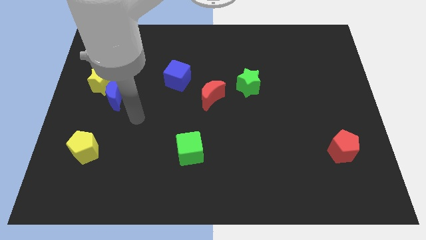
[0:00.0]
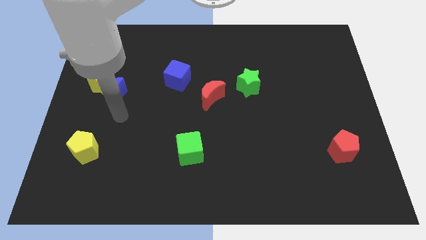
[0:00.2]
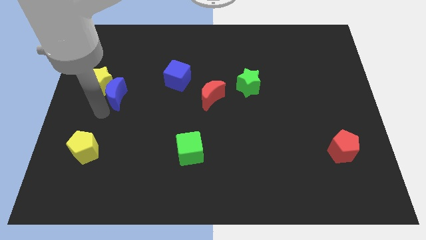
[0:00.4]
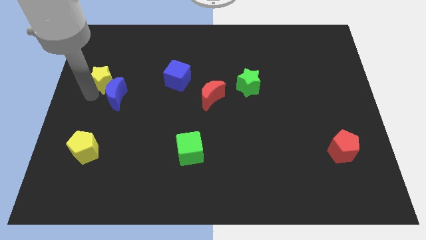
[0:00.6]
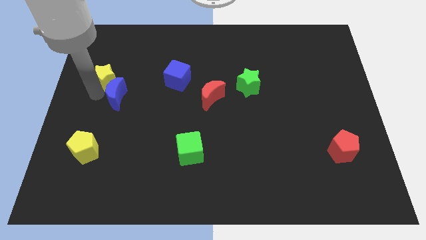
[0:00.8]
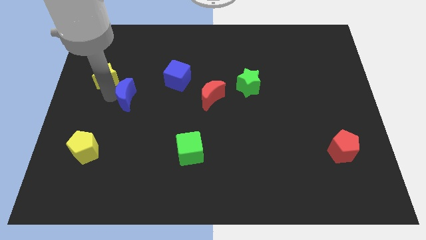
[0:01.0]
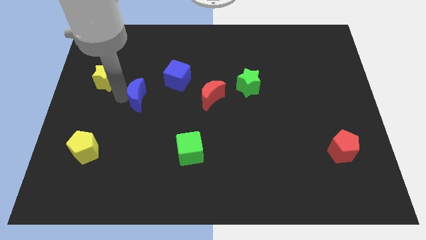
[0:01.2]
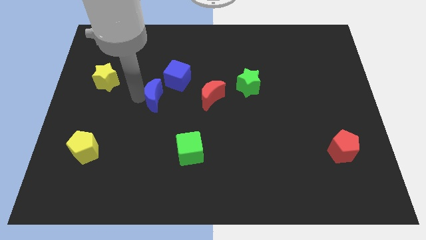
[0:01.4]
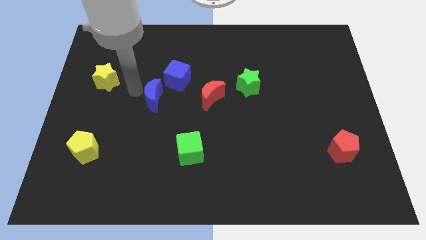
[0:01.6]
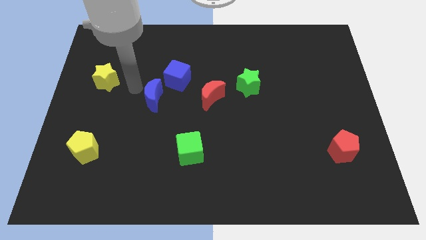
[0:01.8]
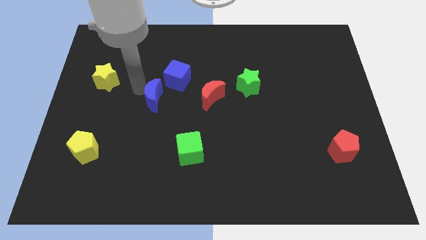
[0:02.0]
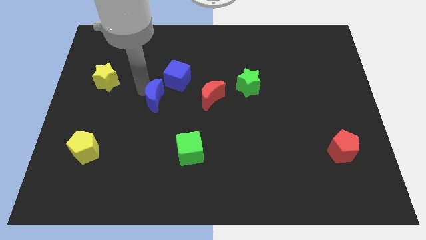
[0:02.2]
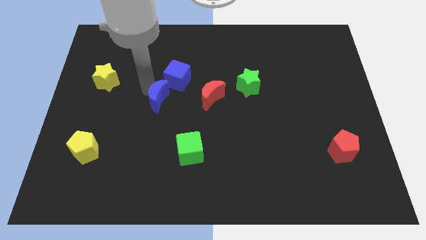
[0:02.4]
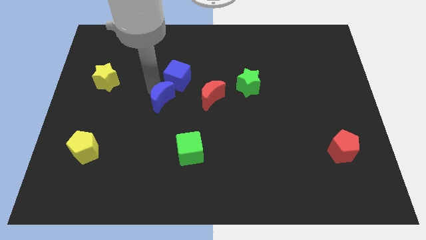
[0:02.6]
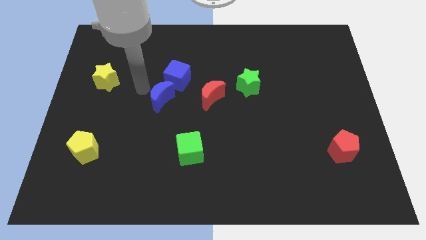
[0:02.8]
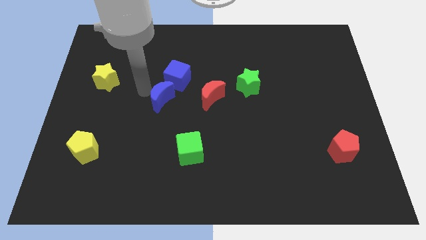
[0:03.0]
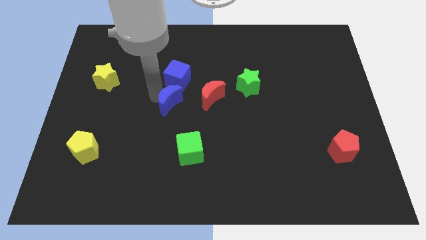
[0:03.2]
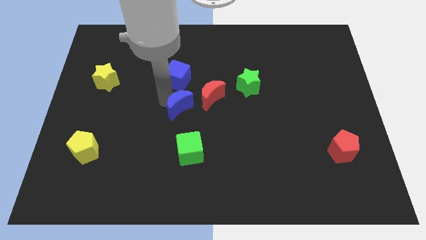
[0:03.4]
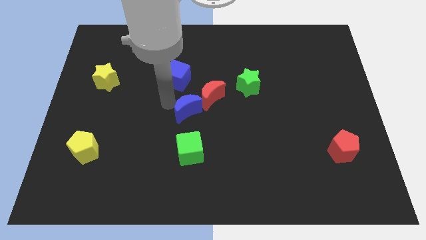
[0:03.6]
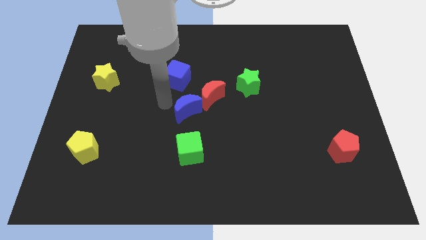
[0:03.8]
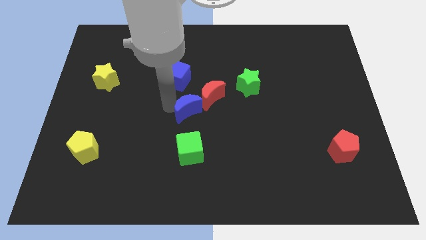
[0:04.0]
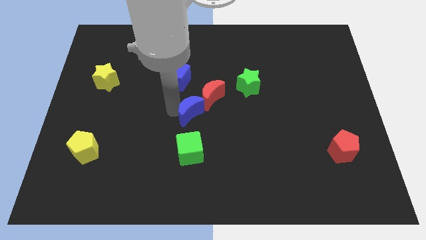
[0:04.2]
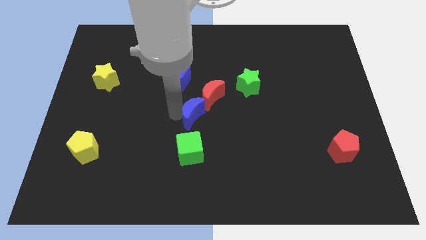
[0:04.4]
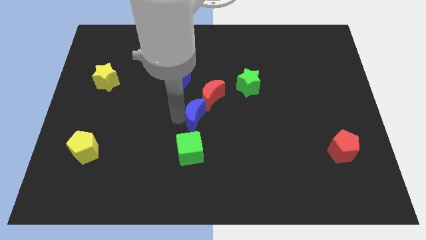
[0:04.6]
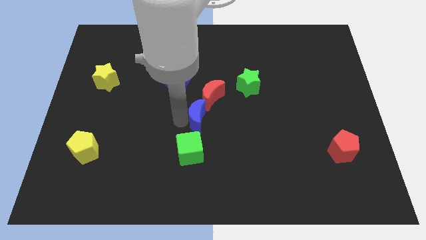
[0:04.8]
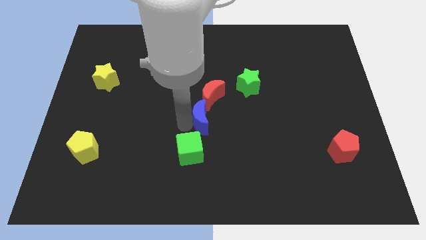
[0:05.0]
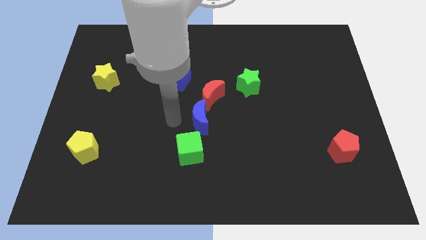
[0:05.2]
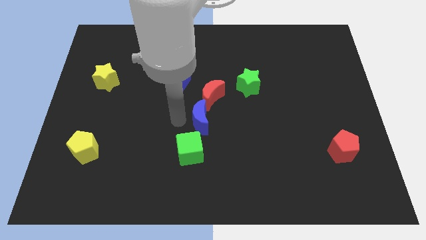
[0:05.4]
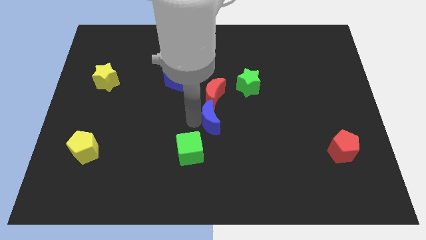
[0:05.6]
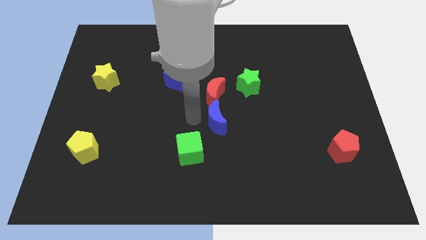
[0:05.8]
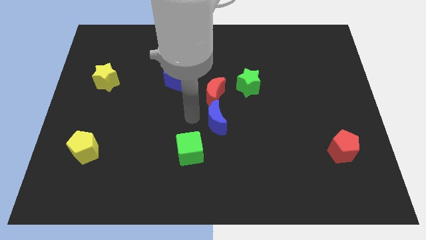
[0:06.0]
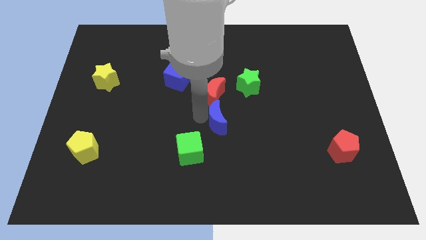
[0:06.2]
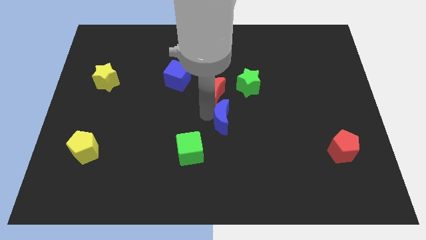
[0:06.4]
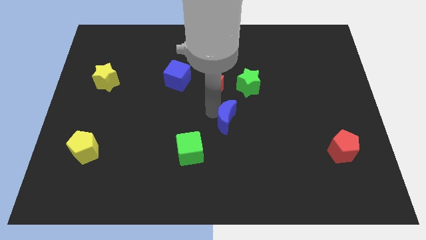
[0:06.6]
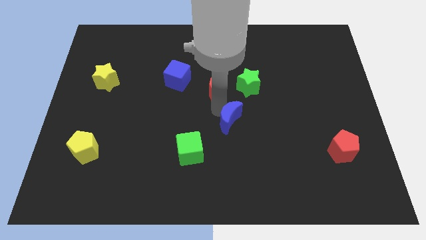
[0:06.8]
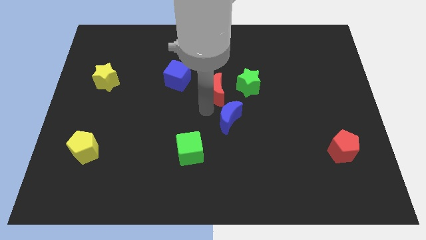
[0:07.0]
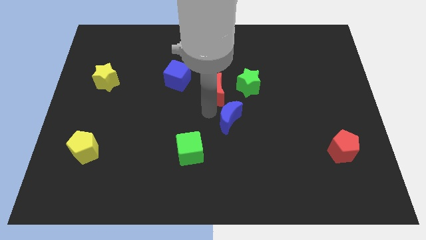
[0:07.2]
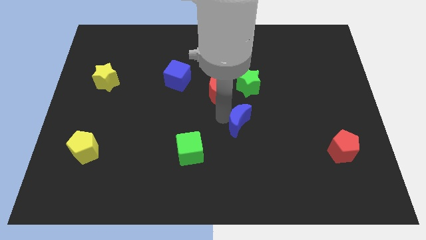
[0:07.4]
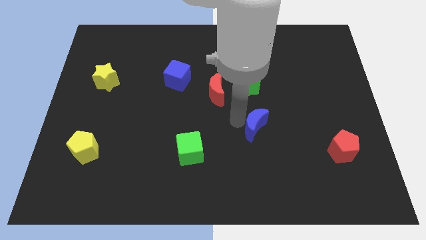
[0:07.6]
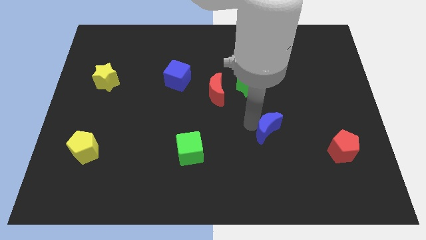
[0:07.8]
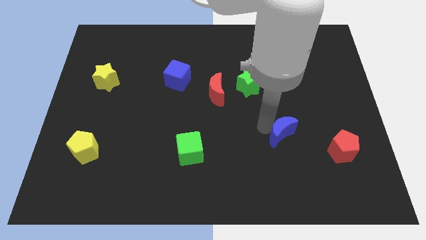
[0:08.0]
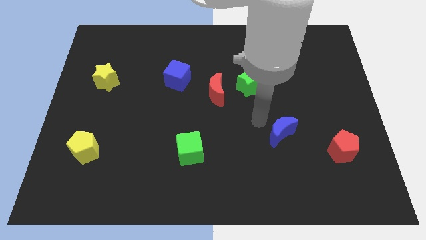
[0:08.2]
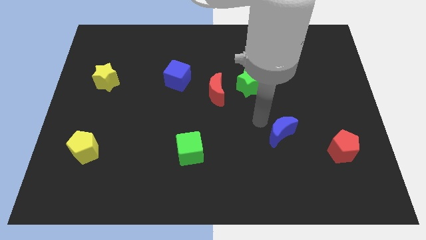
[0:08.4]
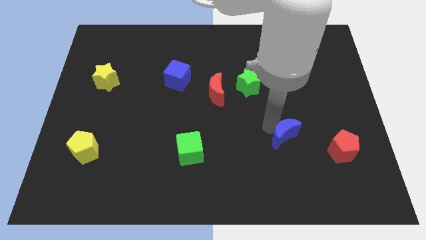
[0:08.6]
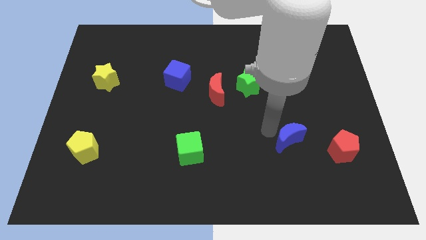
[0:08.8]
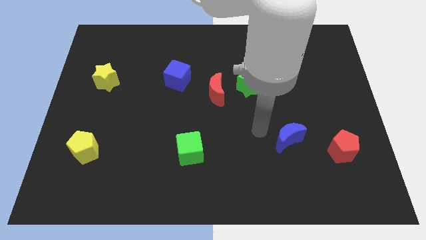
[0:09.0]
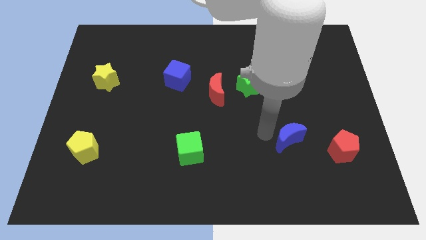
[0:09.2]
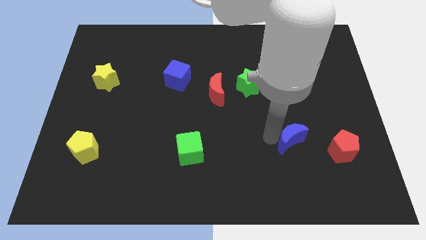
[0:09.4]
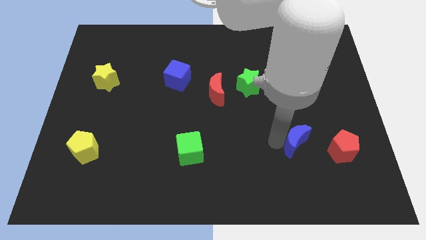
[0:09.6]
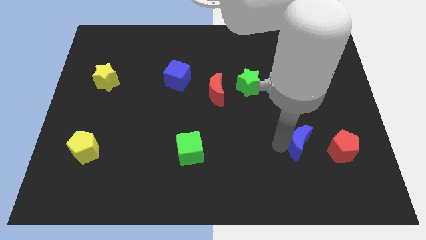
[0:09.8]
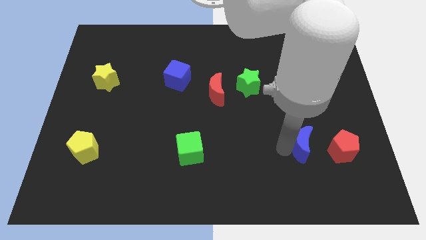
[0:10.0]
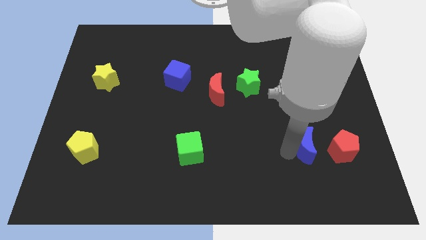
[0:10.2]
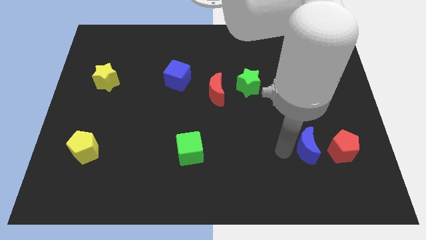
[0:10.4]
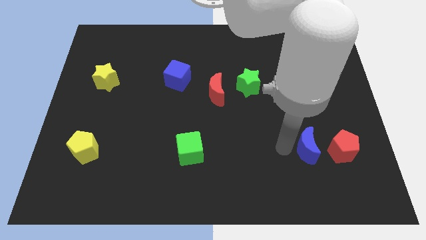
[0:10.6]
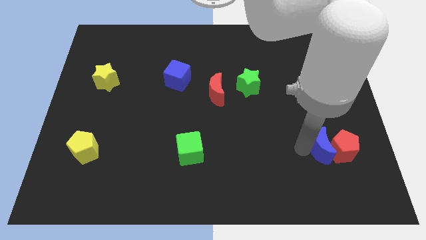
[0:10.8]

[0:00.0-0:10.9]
put the blue moon towards the red pentagon

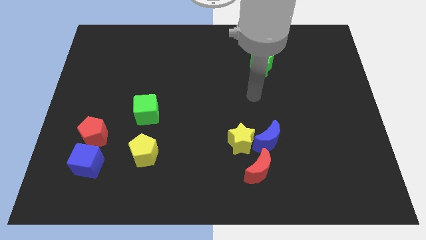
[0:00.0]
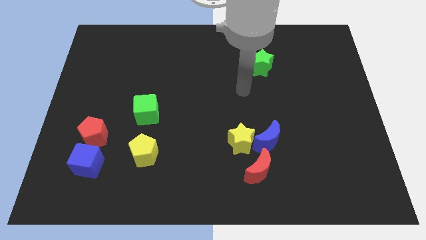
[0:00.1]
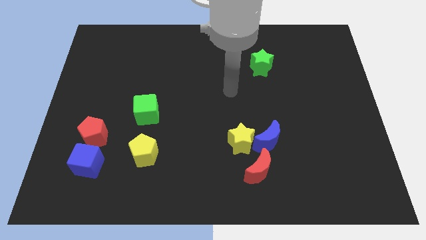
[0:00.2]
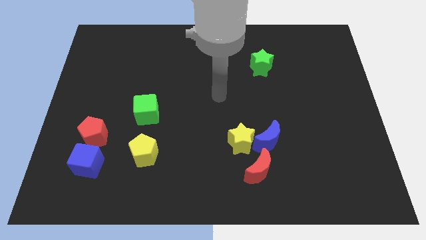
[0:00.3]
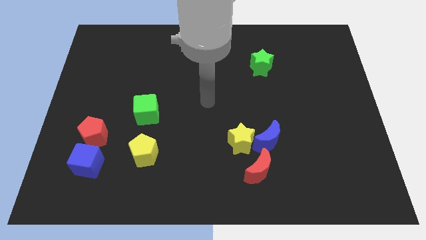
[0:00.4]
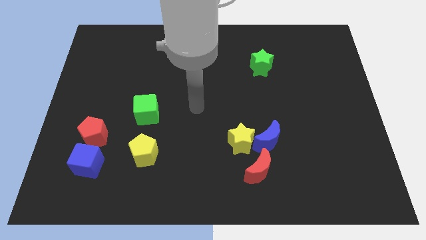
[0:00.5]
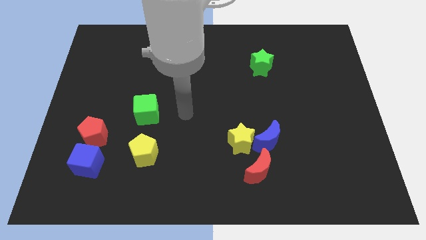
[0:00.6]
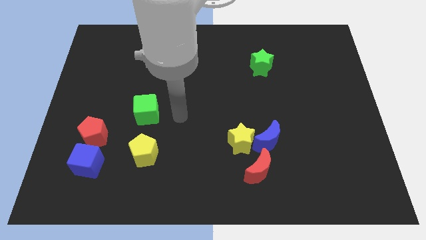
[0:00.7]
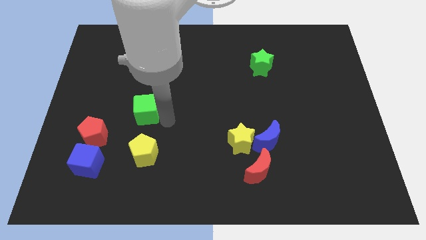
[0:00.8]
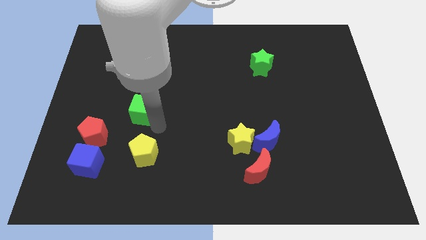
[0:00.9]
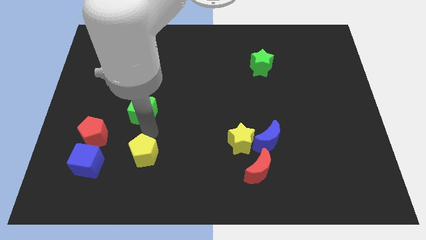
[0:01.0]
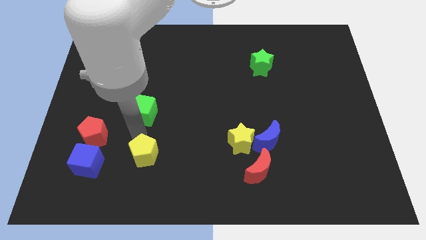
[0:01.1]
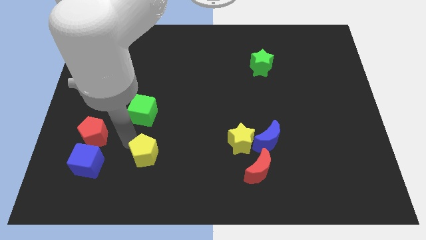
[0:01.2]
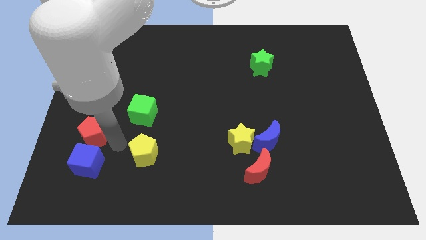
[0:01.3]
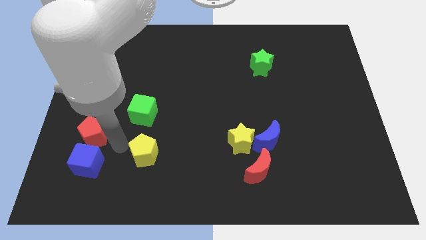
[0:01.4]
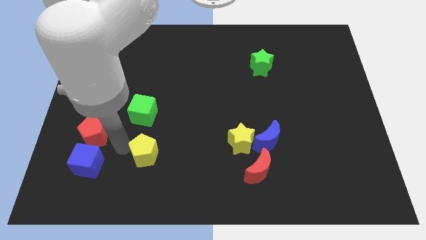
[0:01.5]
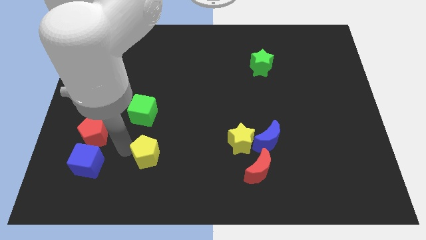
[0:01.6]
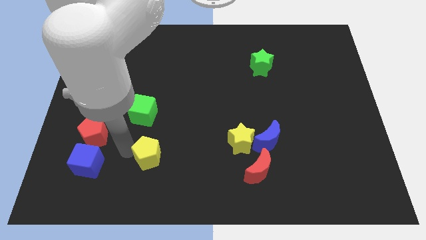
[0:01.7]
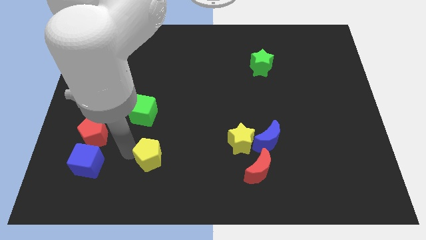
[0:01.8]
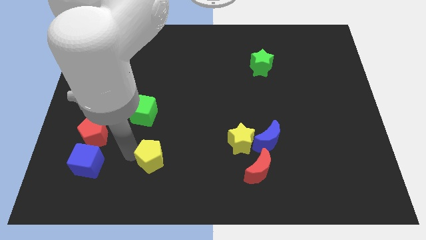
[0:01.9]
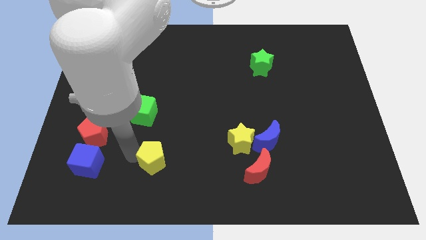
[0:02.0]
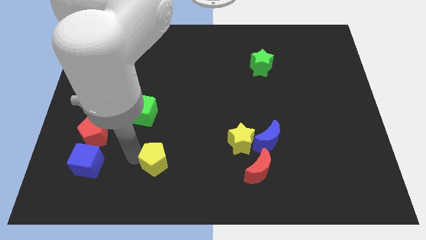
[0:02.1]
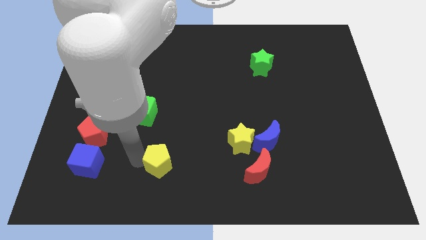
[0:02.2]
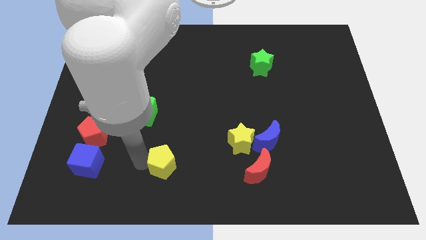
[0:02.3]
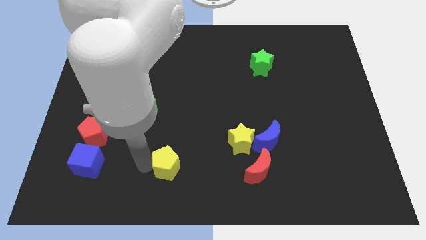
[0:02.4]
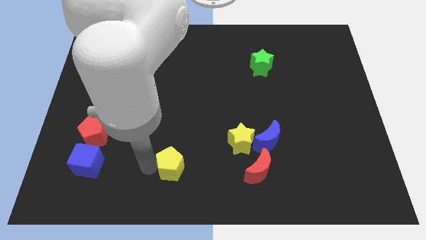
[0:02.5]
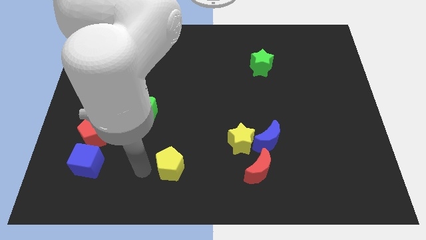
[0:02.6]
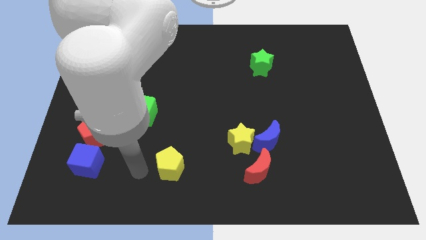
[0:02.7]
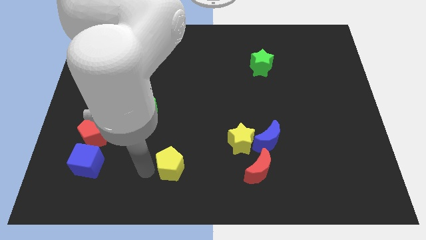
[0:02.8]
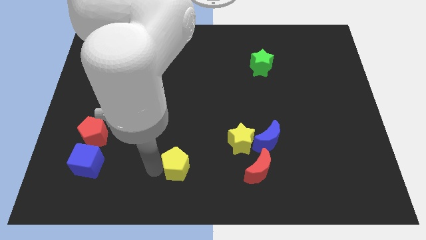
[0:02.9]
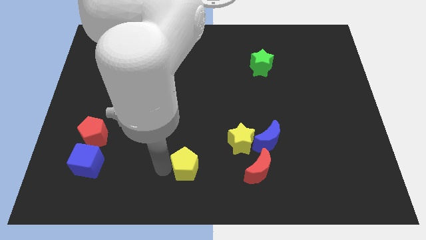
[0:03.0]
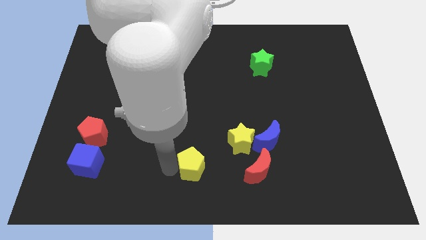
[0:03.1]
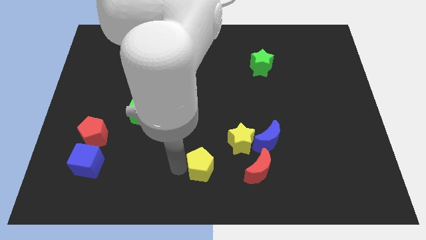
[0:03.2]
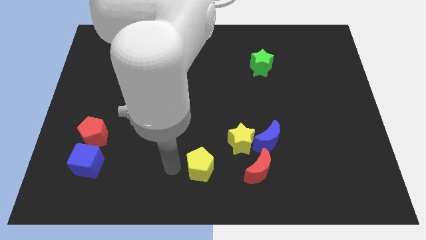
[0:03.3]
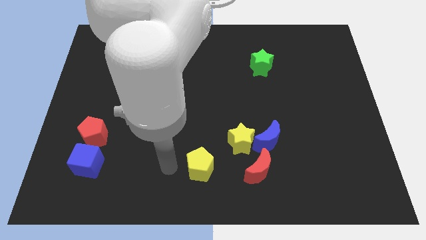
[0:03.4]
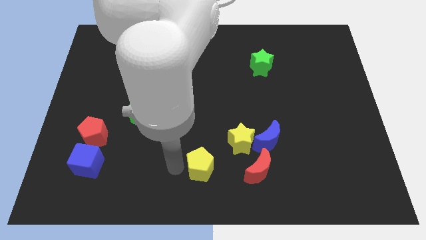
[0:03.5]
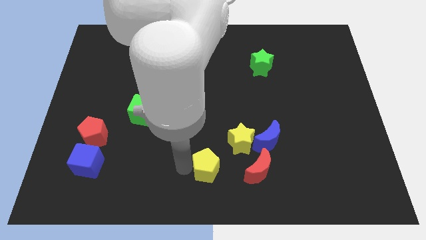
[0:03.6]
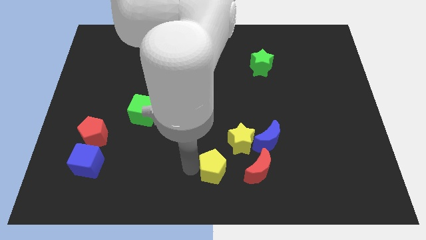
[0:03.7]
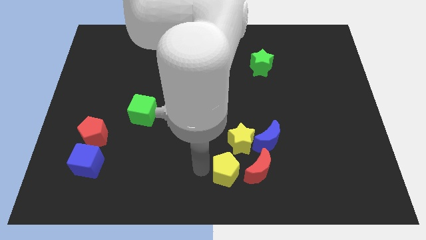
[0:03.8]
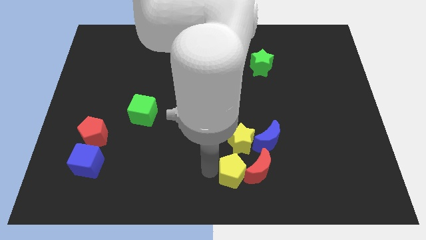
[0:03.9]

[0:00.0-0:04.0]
slide the yellow pentagon close to the red moon
